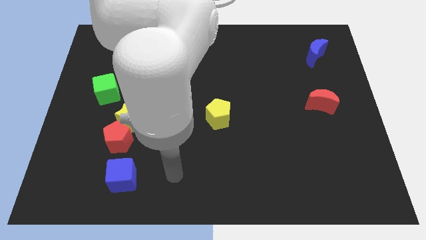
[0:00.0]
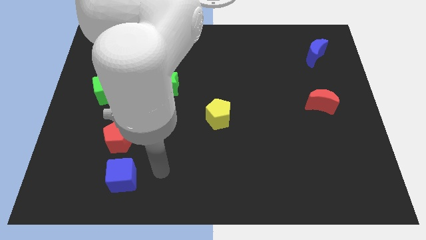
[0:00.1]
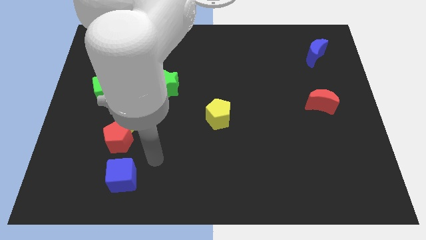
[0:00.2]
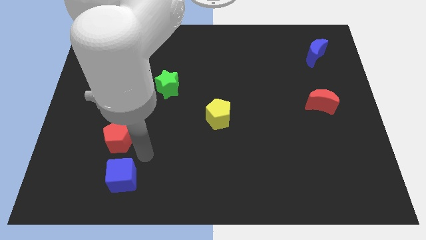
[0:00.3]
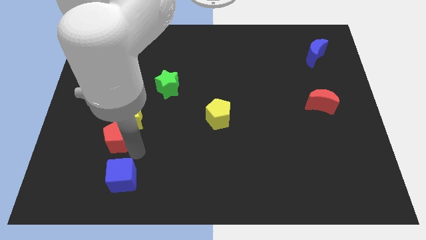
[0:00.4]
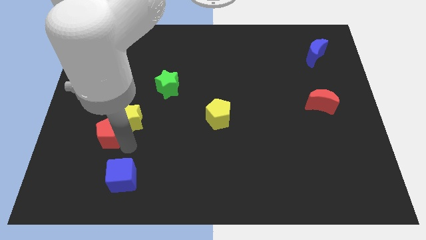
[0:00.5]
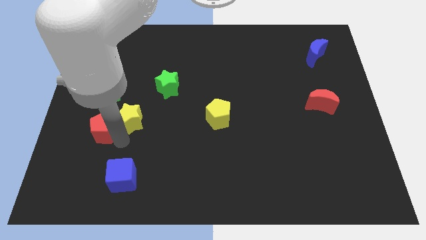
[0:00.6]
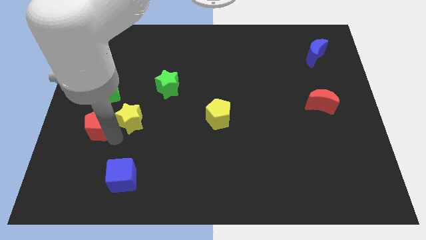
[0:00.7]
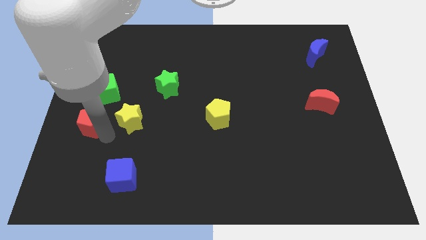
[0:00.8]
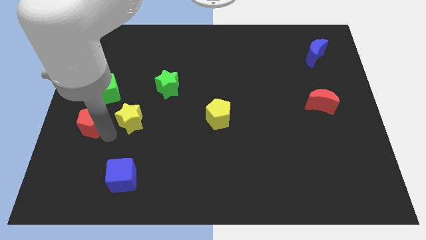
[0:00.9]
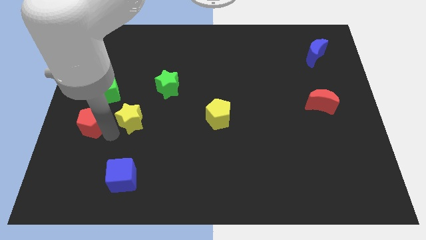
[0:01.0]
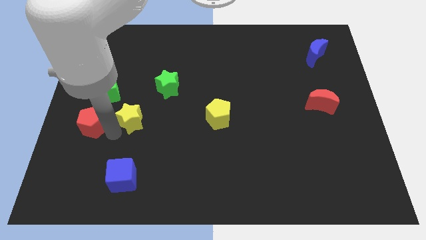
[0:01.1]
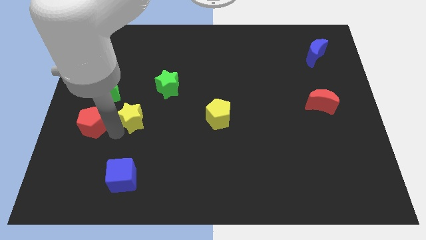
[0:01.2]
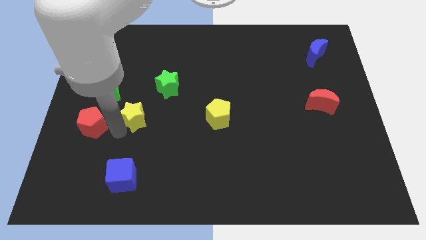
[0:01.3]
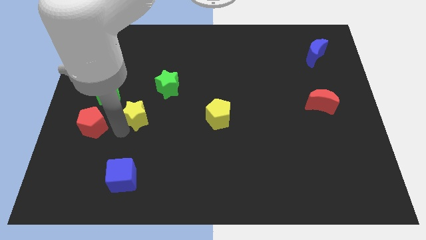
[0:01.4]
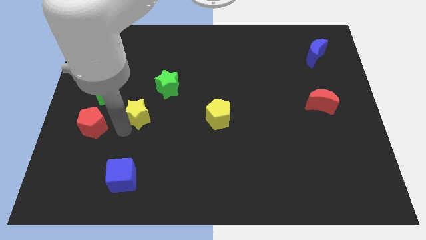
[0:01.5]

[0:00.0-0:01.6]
separate the yellow star from the red pentagon

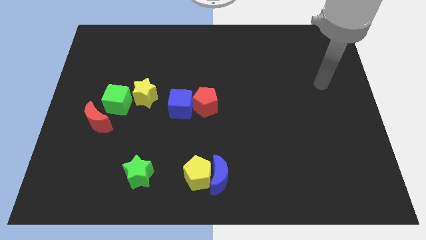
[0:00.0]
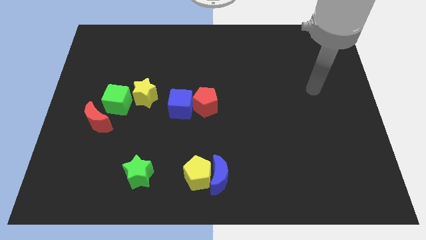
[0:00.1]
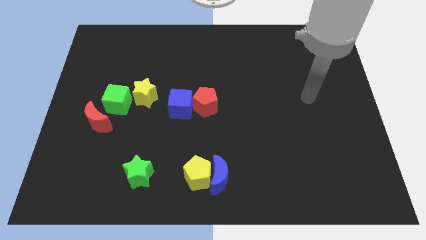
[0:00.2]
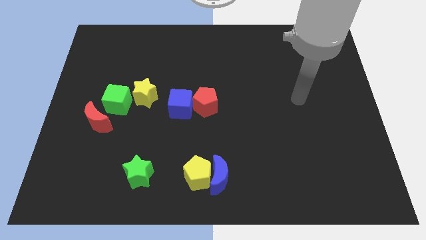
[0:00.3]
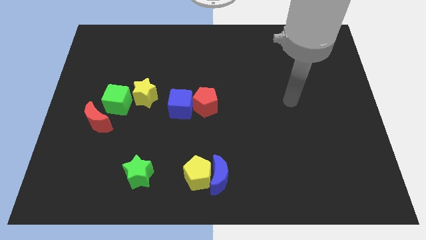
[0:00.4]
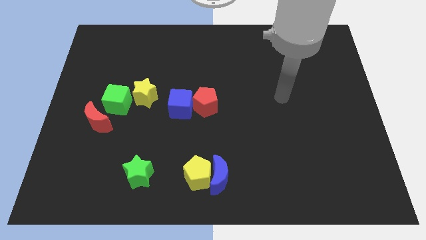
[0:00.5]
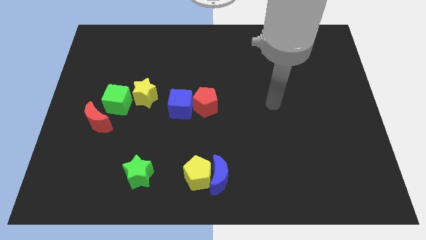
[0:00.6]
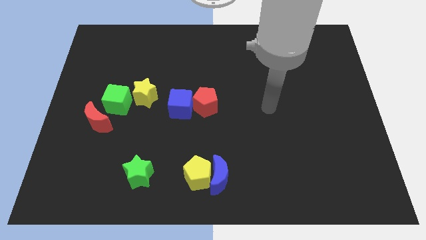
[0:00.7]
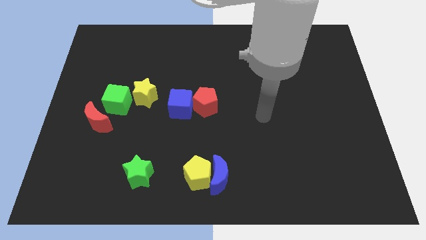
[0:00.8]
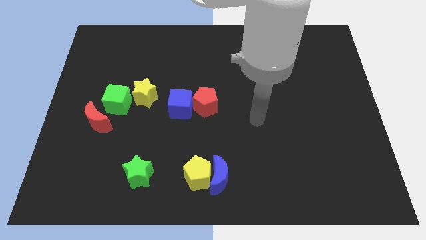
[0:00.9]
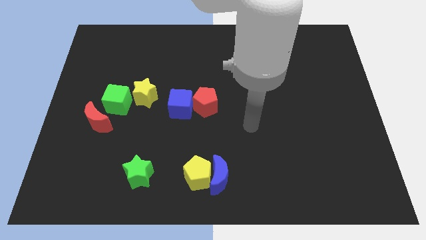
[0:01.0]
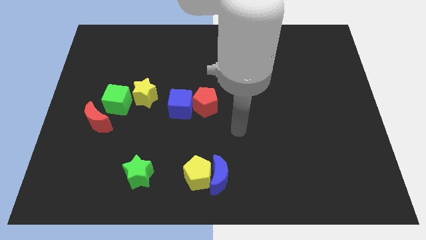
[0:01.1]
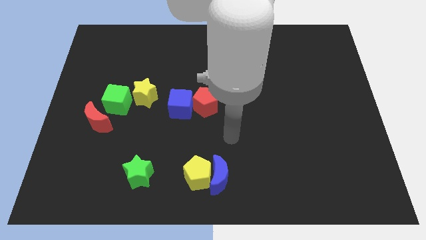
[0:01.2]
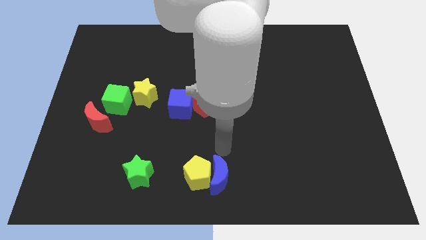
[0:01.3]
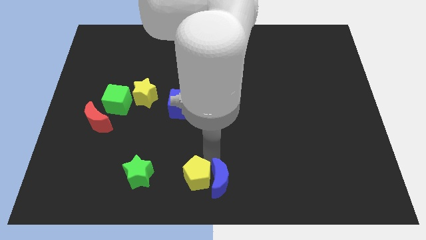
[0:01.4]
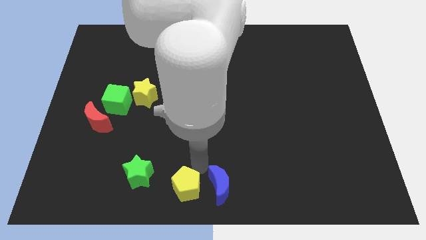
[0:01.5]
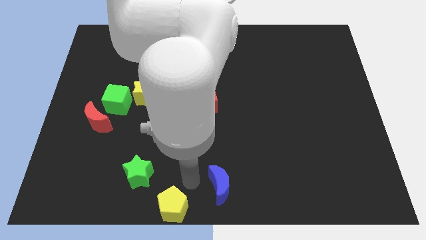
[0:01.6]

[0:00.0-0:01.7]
separate the blue moon from the yellow pentagon

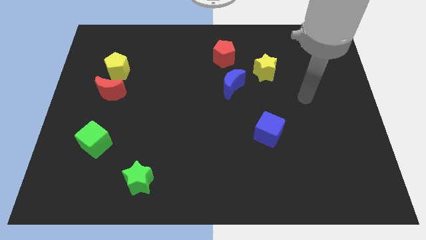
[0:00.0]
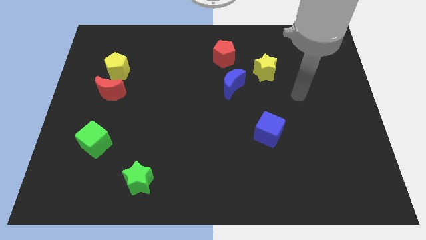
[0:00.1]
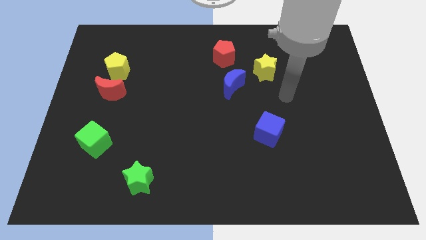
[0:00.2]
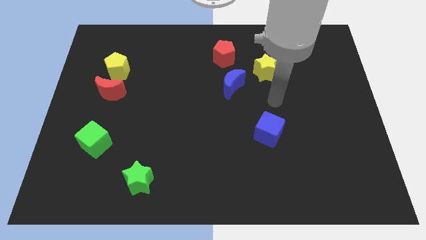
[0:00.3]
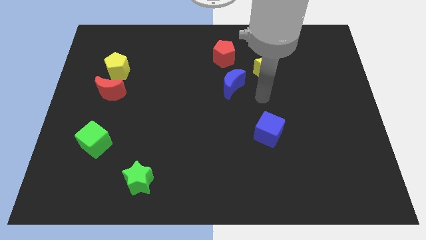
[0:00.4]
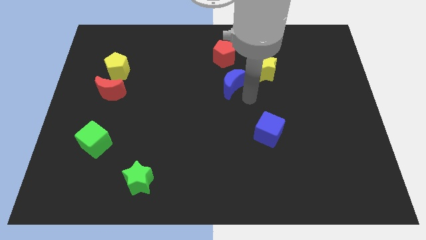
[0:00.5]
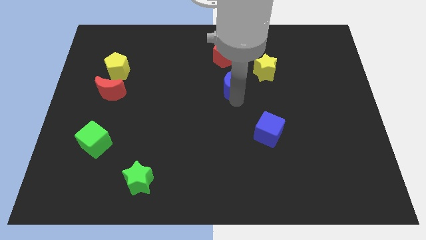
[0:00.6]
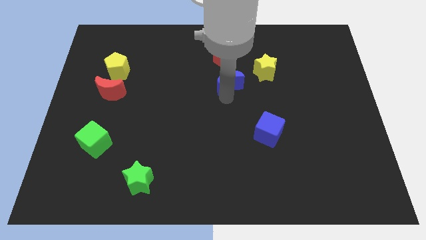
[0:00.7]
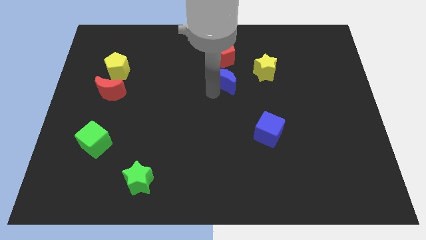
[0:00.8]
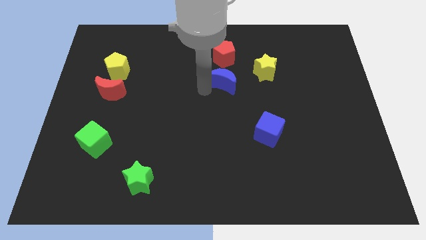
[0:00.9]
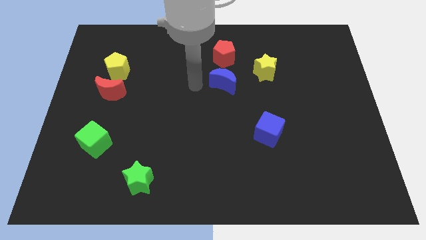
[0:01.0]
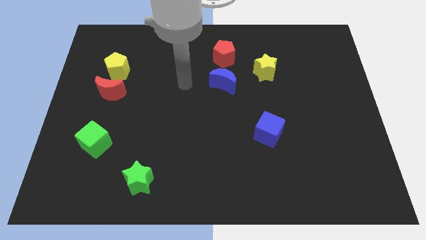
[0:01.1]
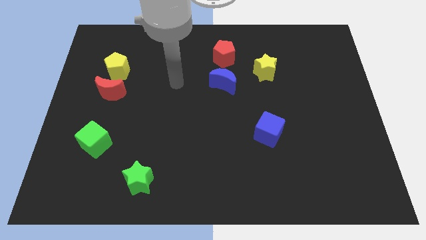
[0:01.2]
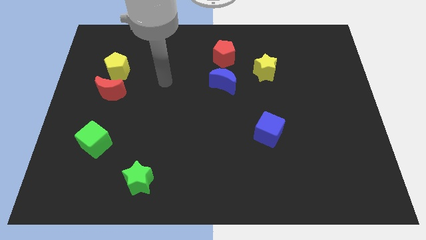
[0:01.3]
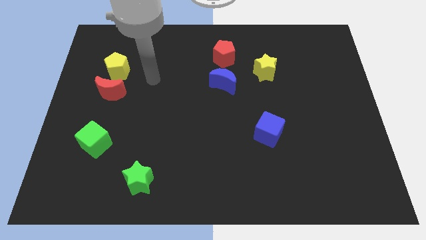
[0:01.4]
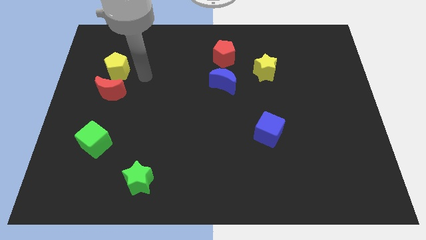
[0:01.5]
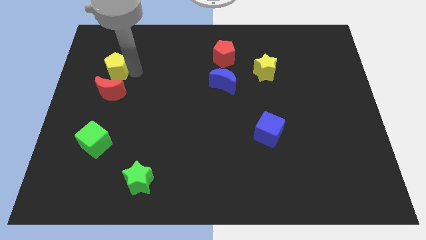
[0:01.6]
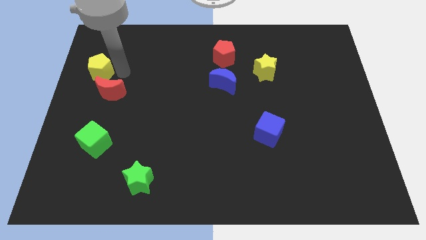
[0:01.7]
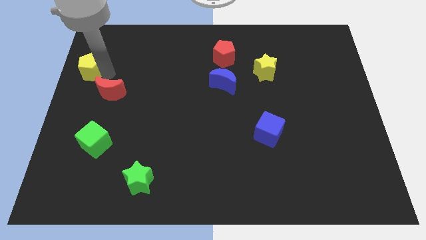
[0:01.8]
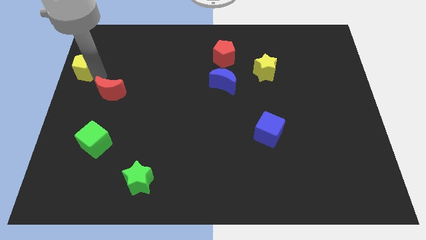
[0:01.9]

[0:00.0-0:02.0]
pull the red moon apart from the yellow pentagon

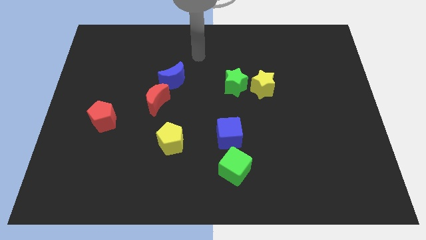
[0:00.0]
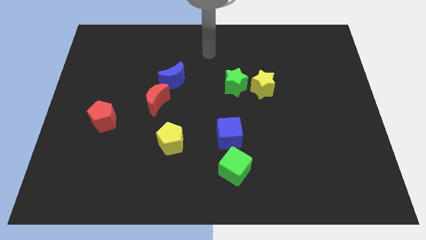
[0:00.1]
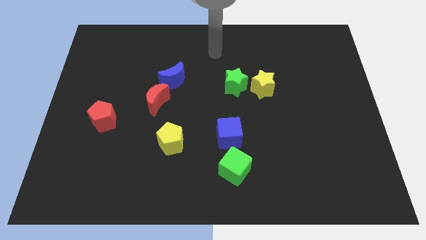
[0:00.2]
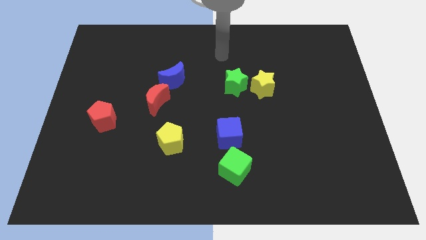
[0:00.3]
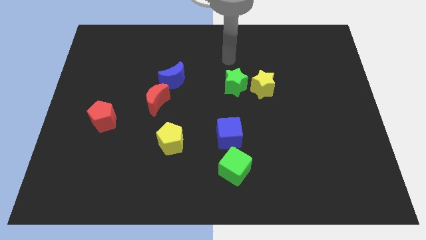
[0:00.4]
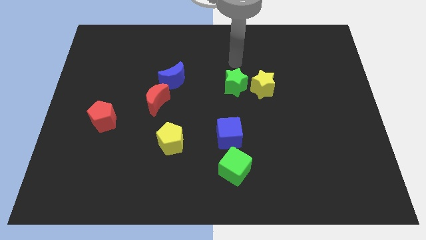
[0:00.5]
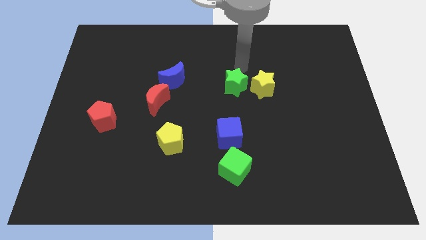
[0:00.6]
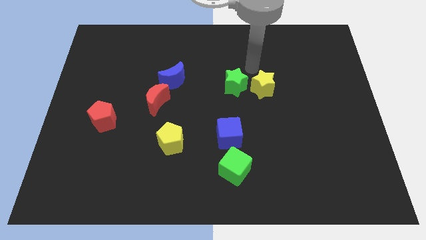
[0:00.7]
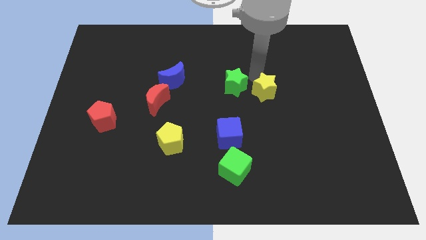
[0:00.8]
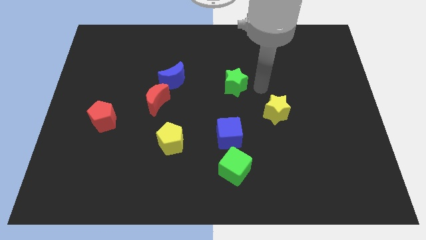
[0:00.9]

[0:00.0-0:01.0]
pull the green star apart from the yellow star

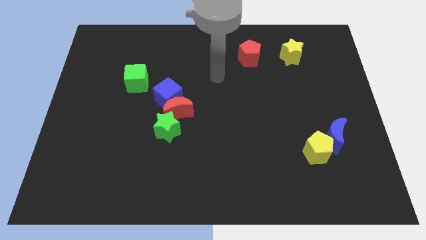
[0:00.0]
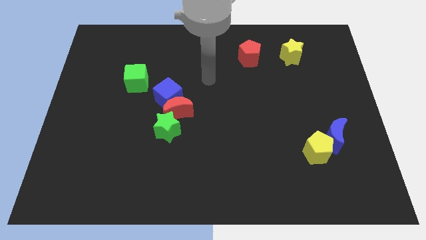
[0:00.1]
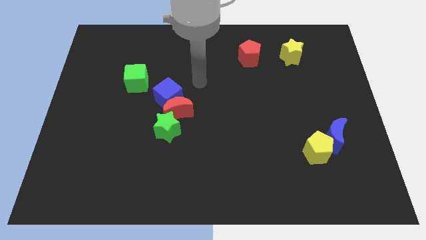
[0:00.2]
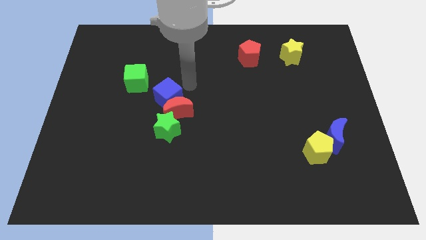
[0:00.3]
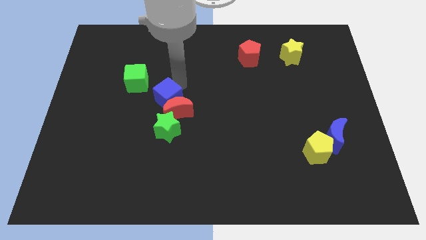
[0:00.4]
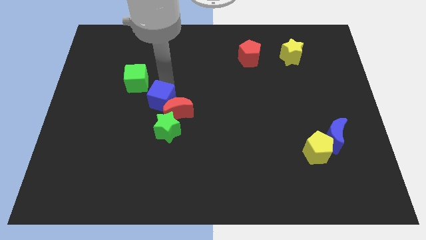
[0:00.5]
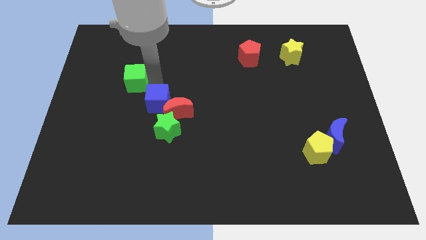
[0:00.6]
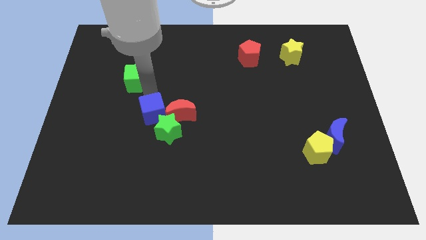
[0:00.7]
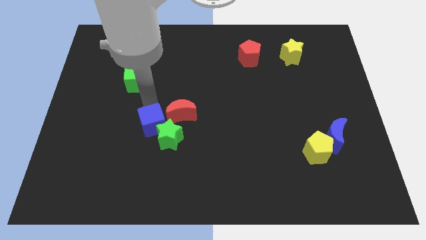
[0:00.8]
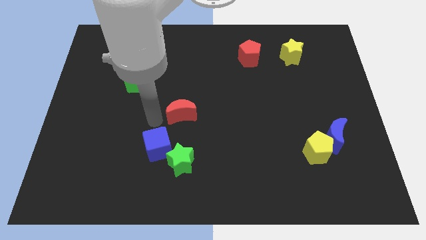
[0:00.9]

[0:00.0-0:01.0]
move the red moon away from the blue cube and green star

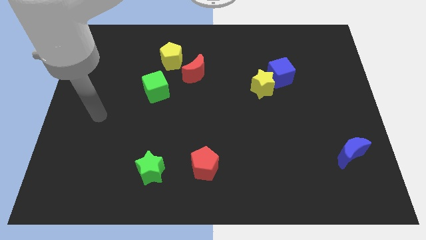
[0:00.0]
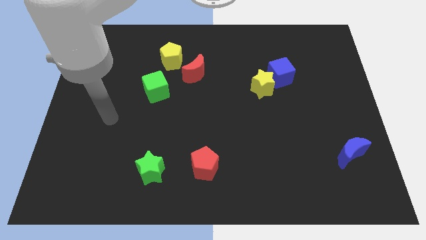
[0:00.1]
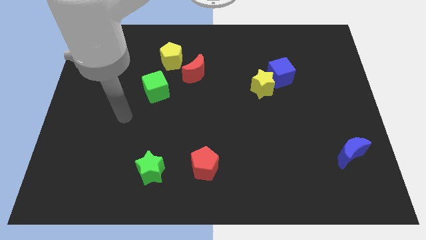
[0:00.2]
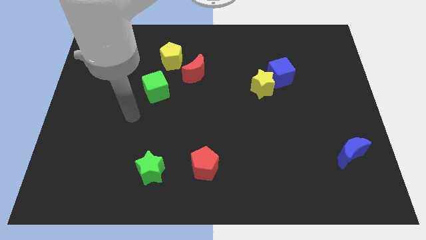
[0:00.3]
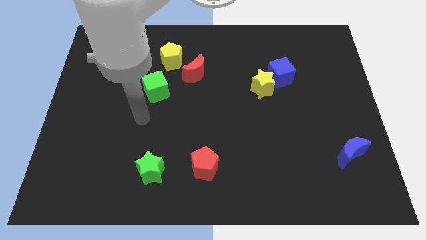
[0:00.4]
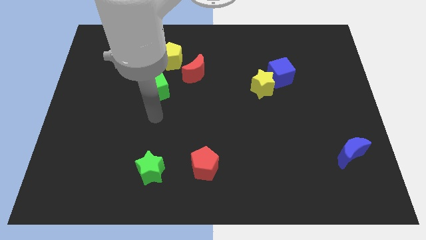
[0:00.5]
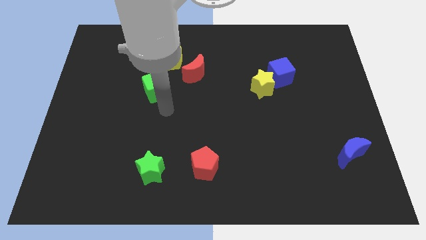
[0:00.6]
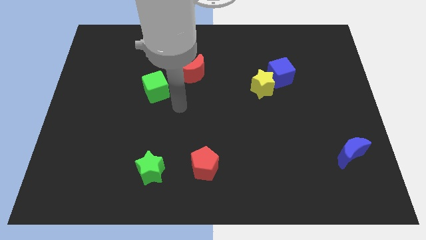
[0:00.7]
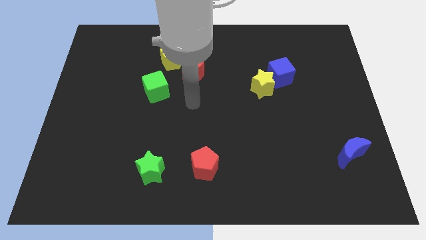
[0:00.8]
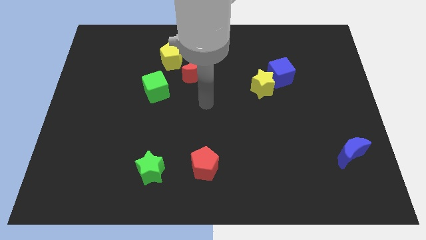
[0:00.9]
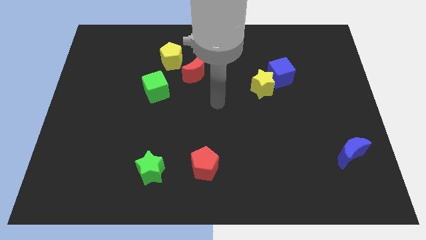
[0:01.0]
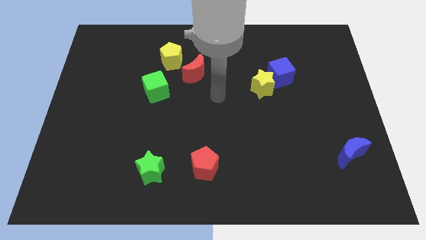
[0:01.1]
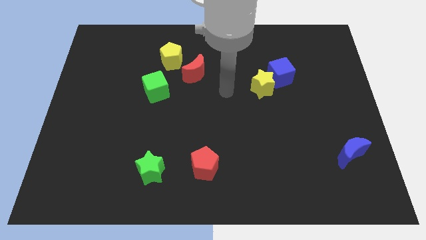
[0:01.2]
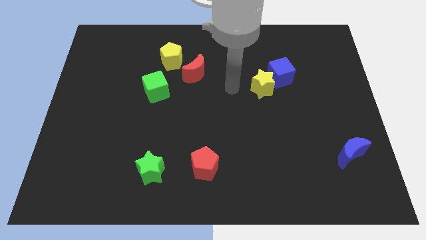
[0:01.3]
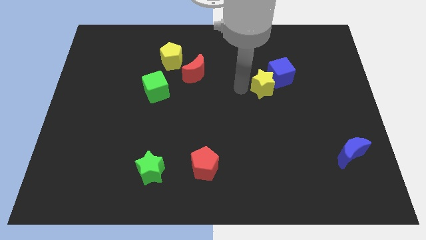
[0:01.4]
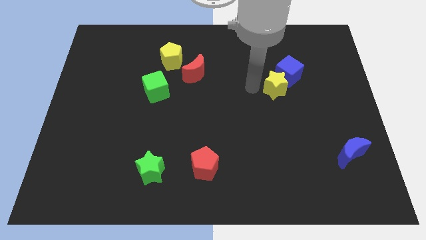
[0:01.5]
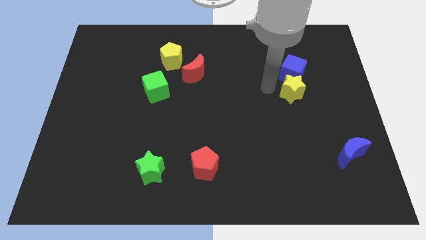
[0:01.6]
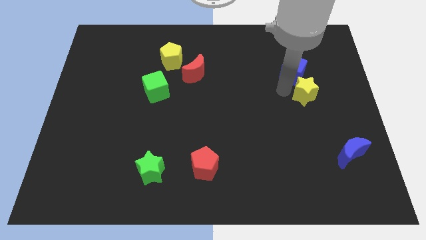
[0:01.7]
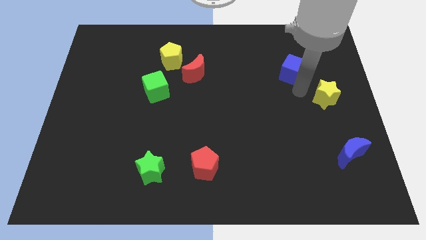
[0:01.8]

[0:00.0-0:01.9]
pull the blue cube apart from the yellow star
